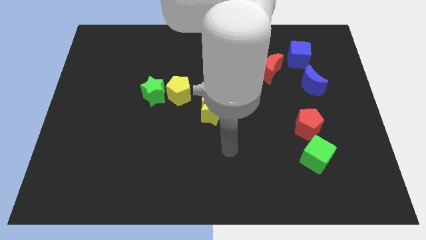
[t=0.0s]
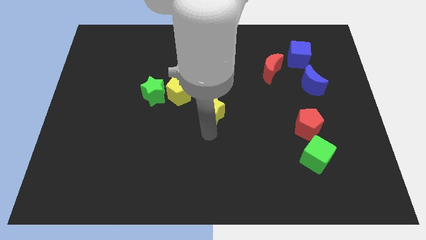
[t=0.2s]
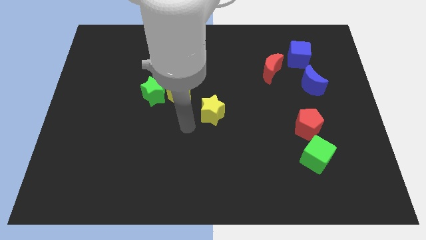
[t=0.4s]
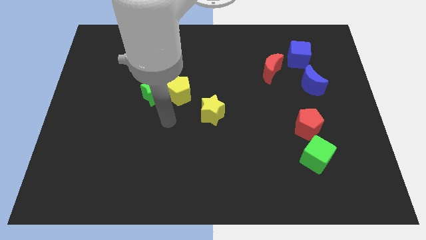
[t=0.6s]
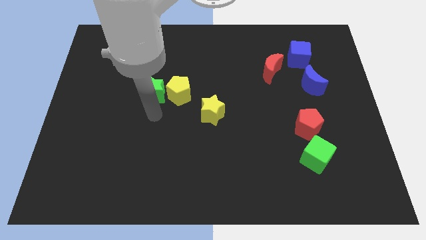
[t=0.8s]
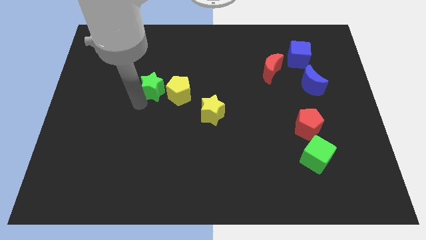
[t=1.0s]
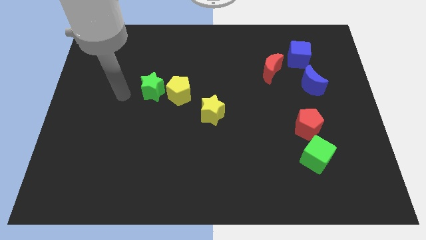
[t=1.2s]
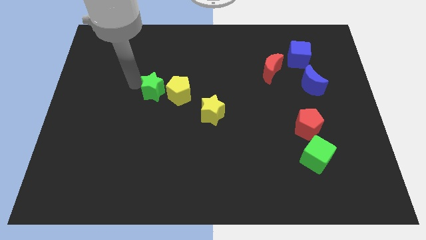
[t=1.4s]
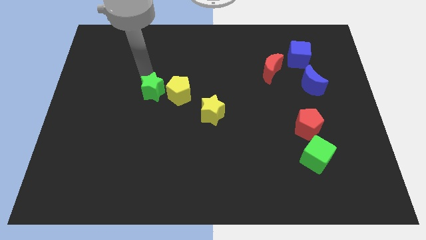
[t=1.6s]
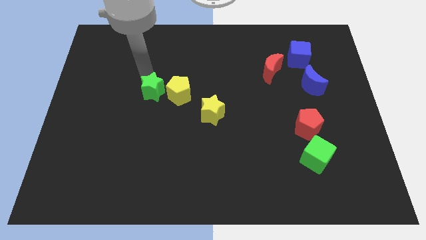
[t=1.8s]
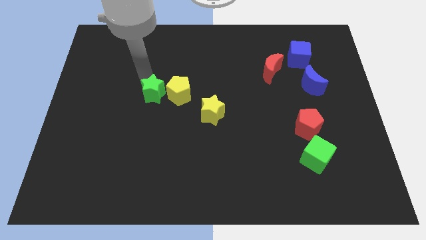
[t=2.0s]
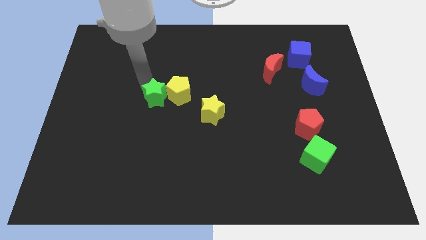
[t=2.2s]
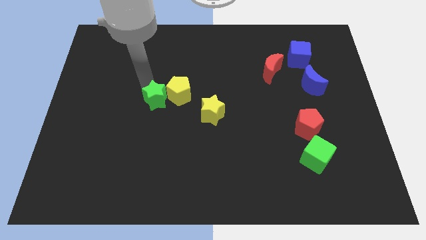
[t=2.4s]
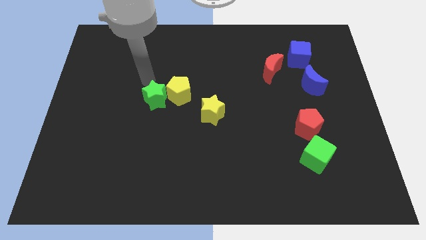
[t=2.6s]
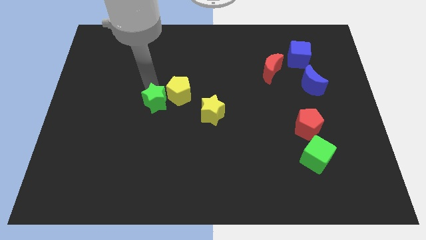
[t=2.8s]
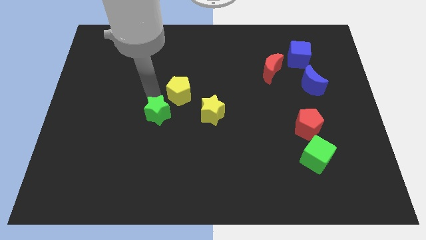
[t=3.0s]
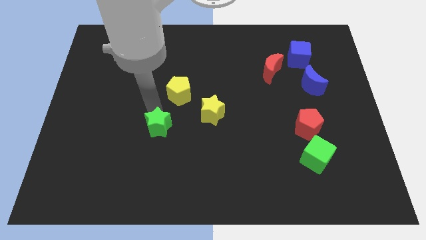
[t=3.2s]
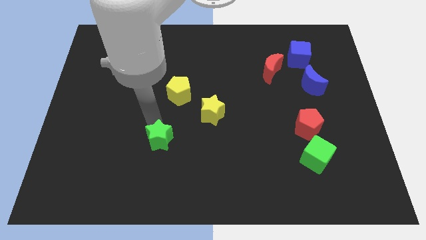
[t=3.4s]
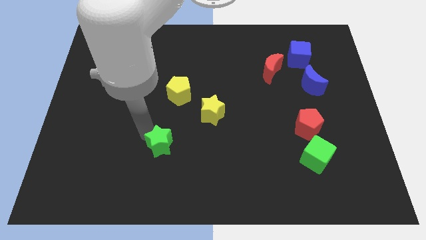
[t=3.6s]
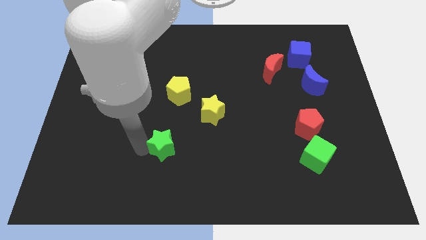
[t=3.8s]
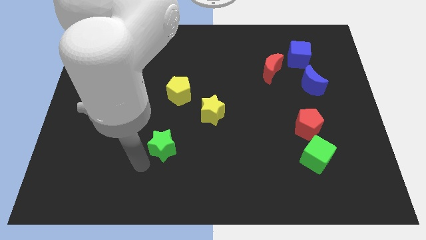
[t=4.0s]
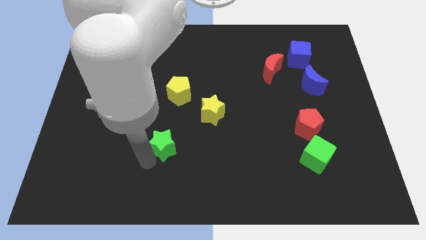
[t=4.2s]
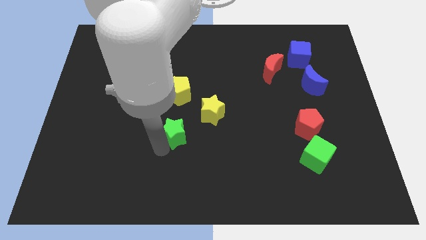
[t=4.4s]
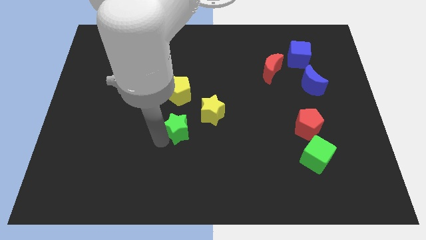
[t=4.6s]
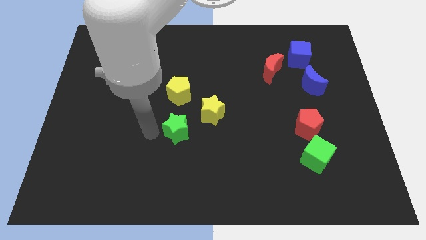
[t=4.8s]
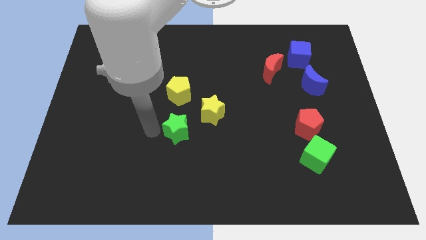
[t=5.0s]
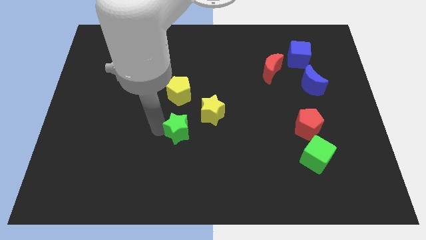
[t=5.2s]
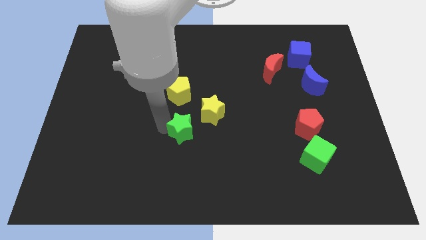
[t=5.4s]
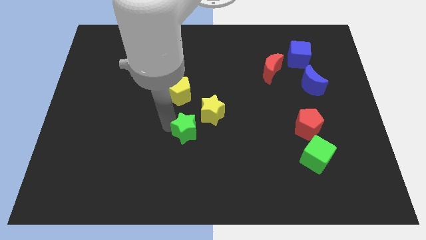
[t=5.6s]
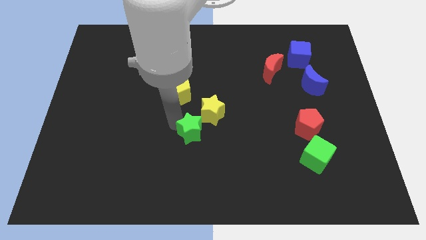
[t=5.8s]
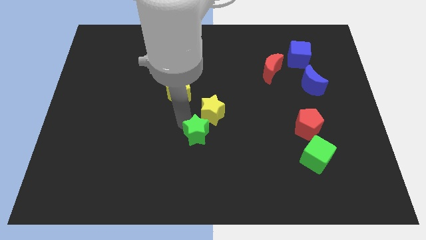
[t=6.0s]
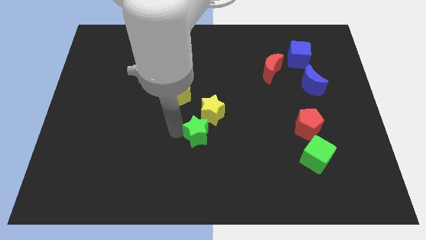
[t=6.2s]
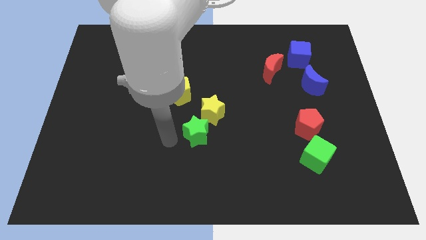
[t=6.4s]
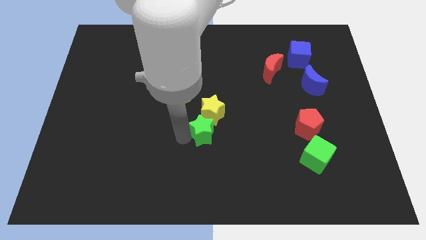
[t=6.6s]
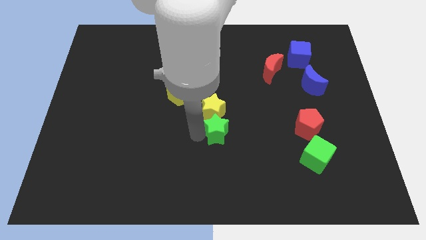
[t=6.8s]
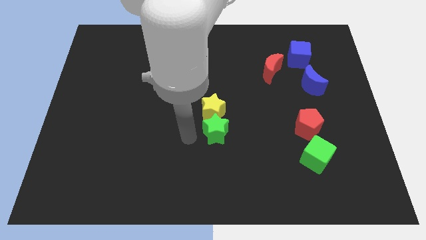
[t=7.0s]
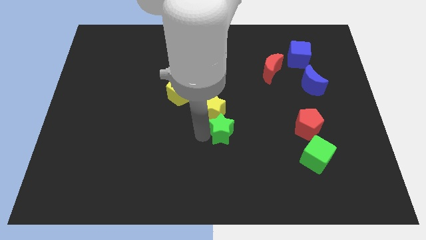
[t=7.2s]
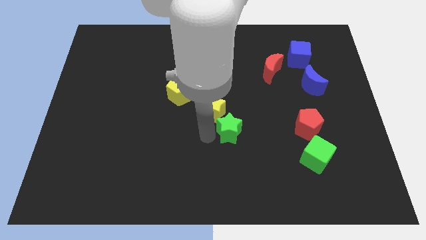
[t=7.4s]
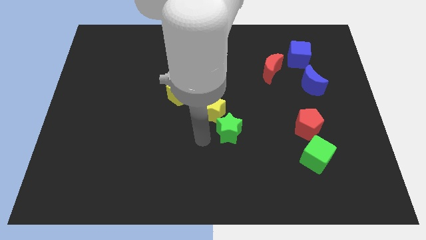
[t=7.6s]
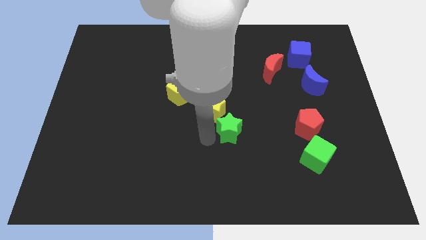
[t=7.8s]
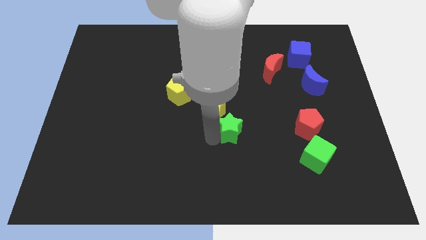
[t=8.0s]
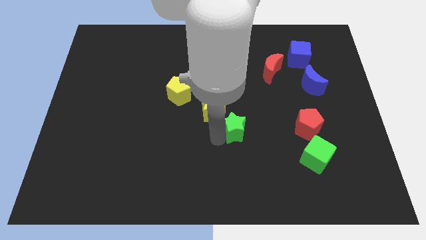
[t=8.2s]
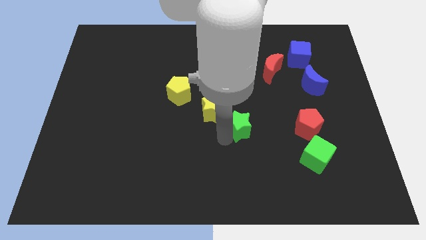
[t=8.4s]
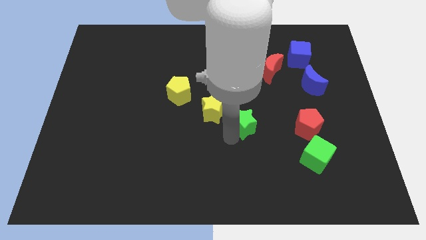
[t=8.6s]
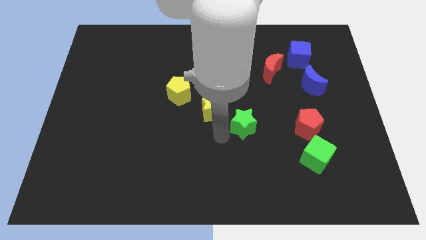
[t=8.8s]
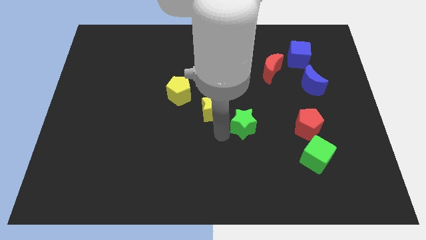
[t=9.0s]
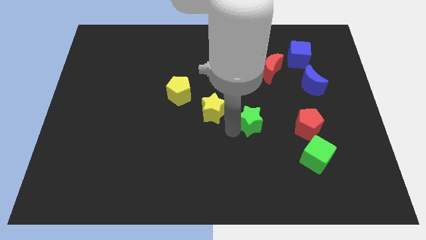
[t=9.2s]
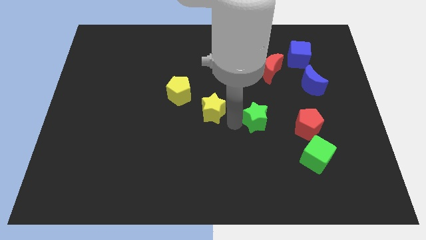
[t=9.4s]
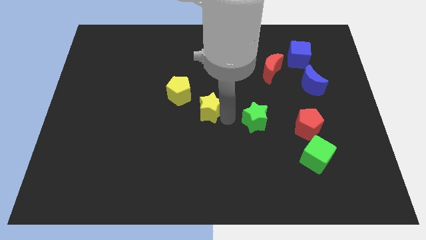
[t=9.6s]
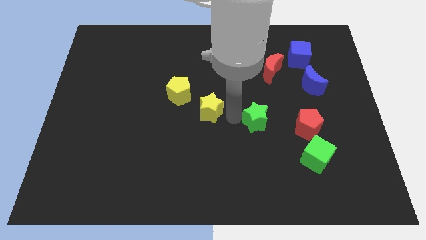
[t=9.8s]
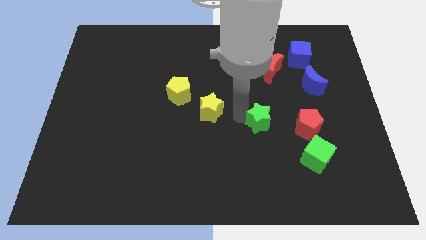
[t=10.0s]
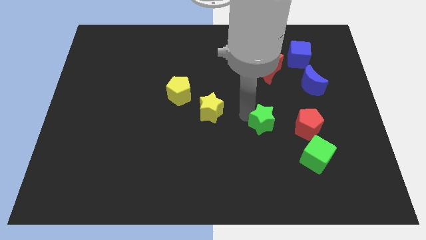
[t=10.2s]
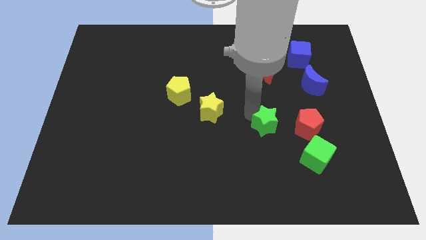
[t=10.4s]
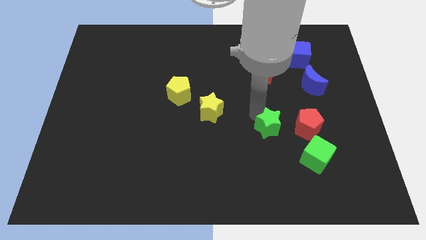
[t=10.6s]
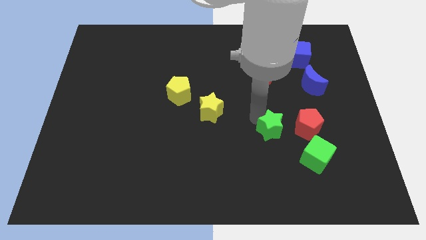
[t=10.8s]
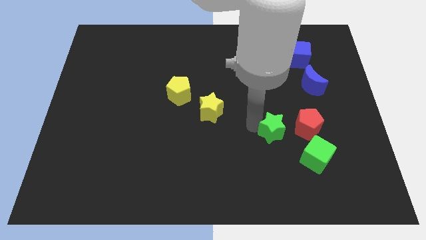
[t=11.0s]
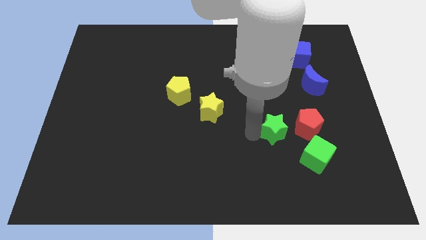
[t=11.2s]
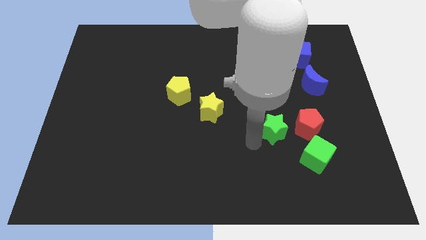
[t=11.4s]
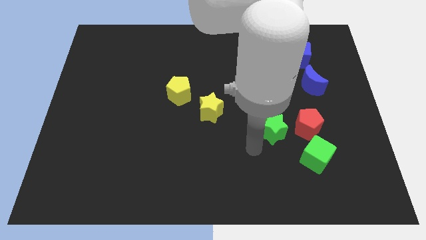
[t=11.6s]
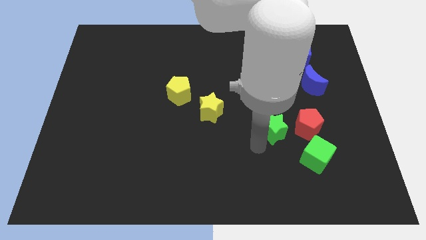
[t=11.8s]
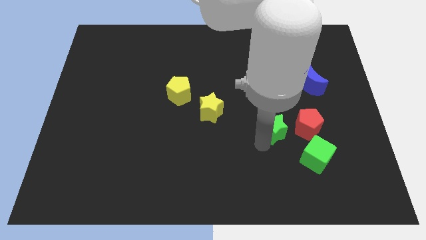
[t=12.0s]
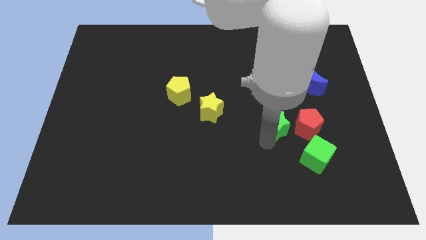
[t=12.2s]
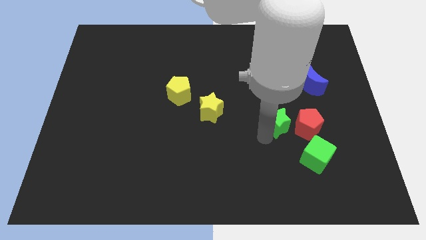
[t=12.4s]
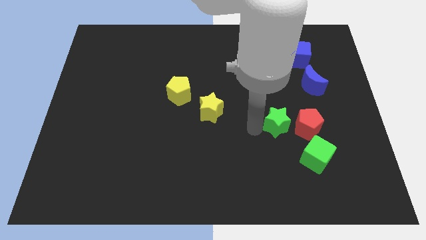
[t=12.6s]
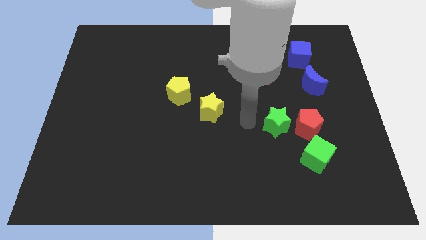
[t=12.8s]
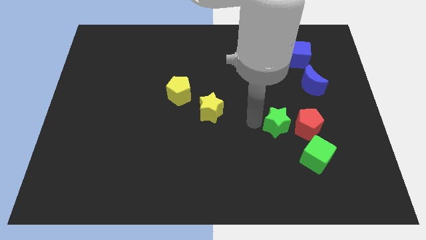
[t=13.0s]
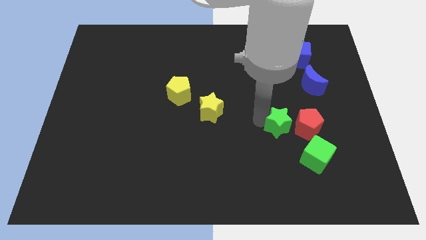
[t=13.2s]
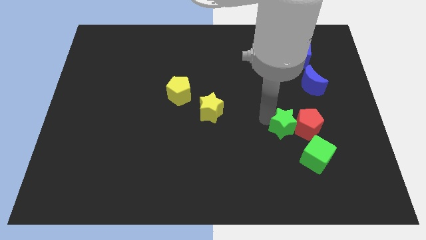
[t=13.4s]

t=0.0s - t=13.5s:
move the green star towards the red pentagon

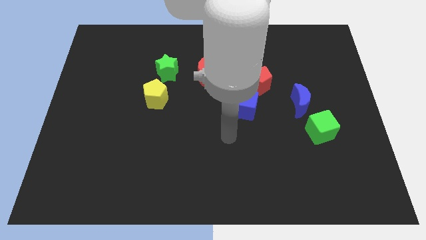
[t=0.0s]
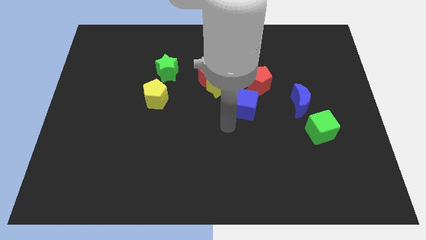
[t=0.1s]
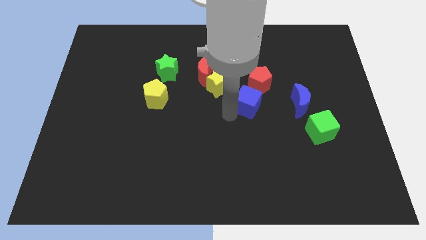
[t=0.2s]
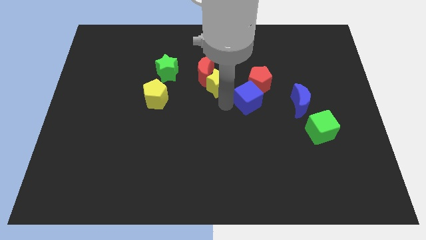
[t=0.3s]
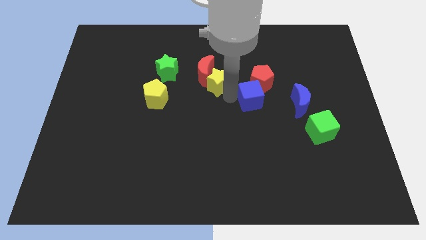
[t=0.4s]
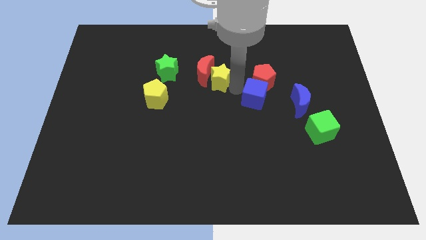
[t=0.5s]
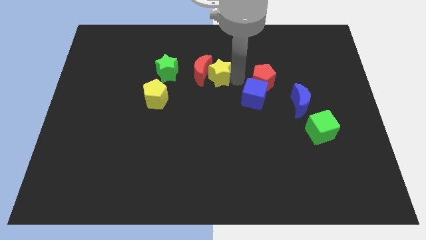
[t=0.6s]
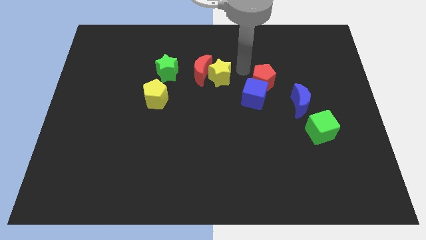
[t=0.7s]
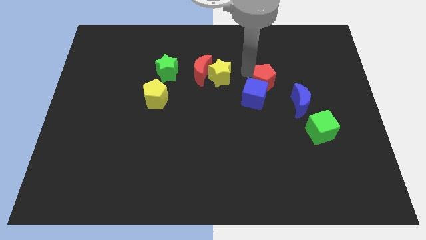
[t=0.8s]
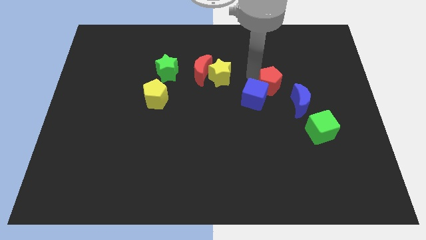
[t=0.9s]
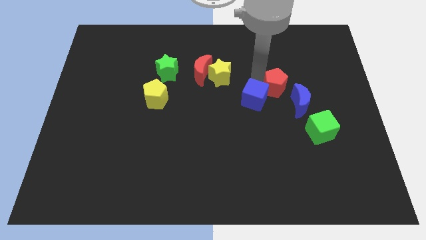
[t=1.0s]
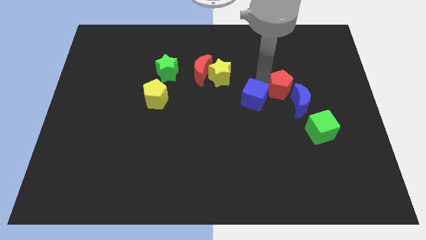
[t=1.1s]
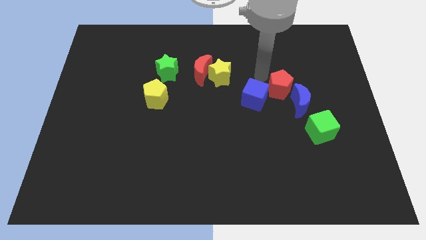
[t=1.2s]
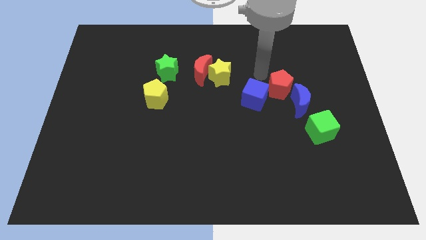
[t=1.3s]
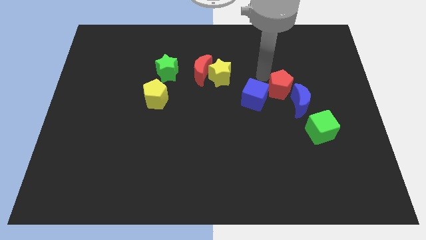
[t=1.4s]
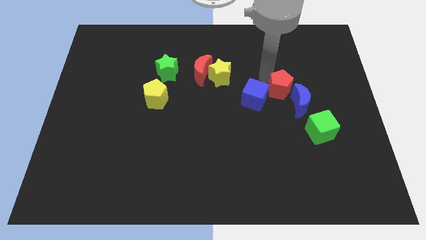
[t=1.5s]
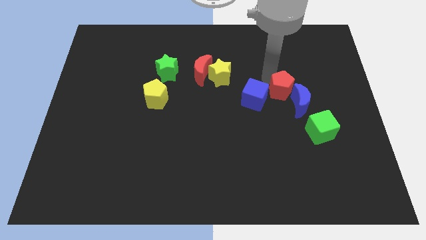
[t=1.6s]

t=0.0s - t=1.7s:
push the red pentagon to the blue moon
